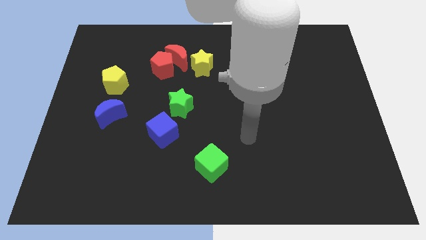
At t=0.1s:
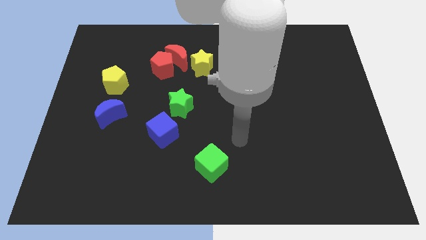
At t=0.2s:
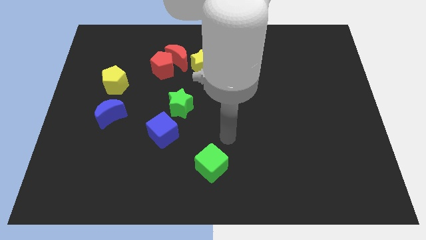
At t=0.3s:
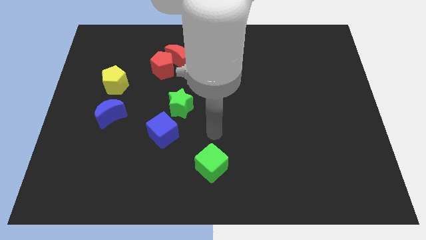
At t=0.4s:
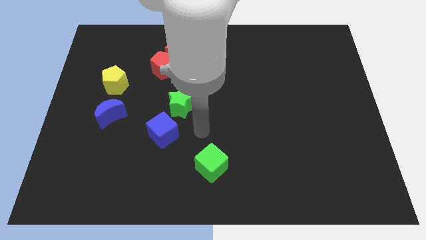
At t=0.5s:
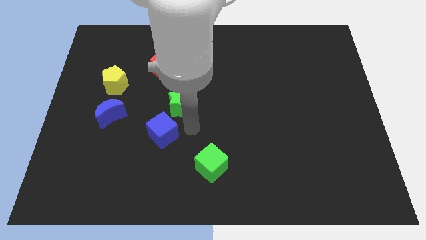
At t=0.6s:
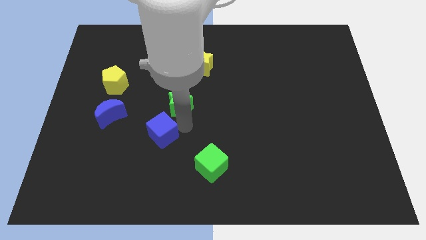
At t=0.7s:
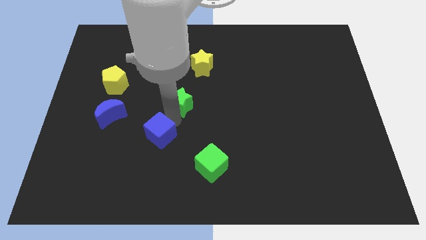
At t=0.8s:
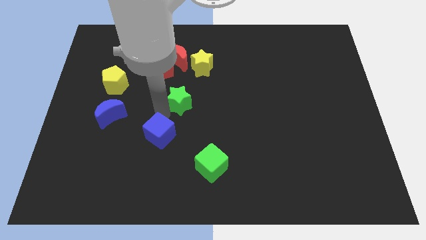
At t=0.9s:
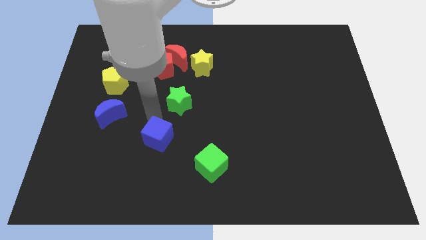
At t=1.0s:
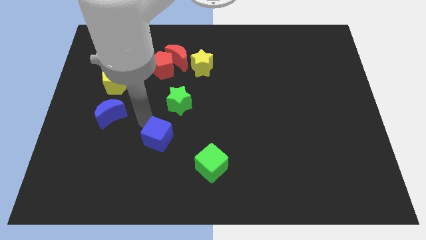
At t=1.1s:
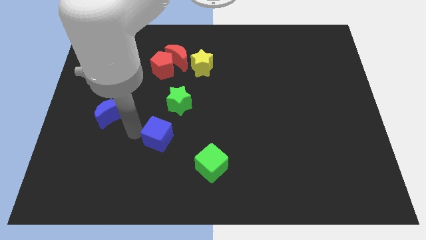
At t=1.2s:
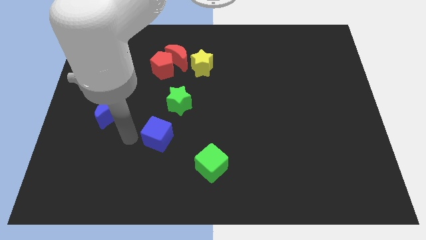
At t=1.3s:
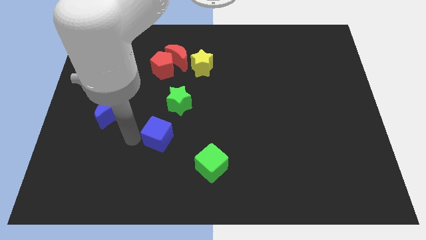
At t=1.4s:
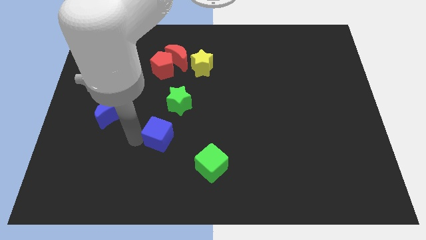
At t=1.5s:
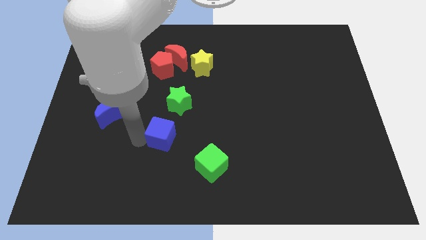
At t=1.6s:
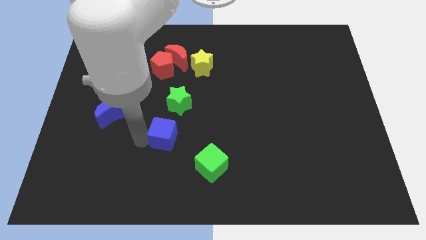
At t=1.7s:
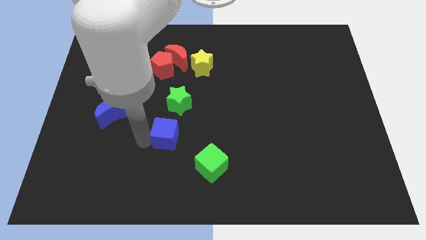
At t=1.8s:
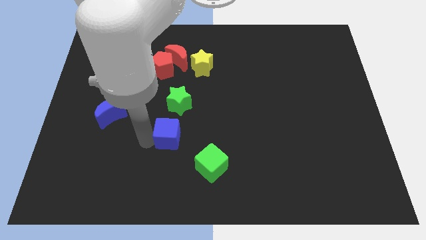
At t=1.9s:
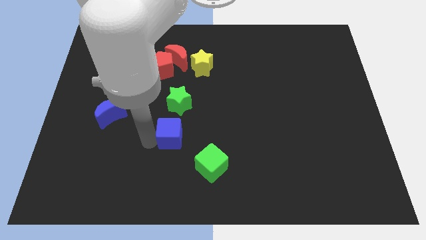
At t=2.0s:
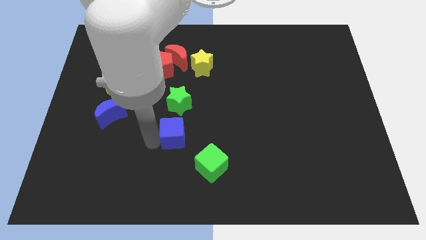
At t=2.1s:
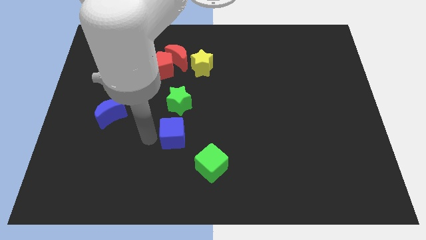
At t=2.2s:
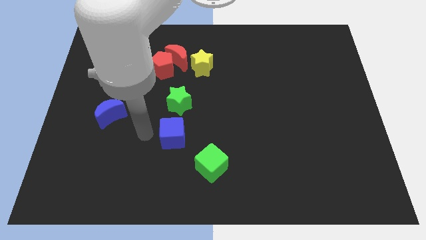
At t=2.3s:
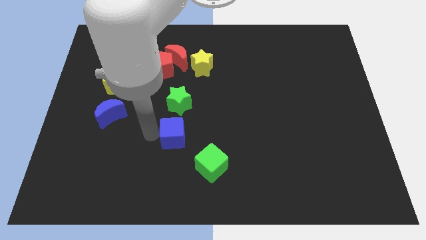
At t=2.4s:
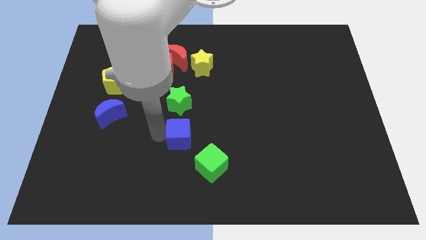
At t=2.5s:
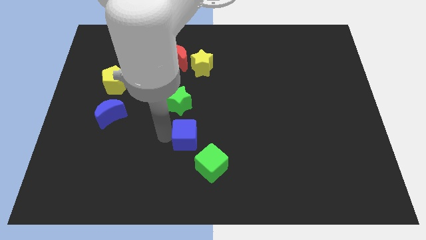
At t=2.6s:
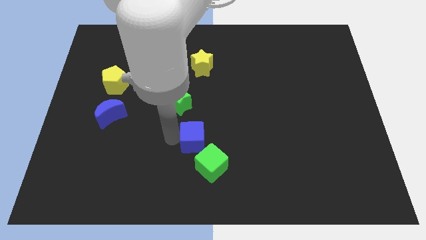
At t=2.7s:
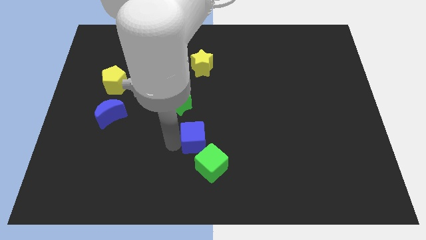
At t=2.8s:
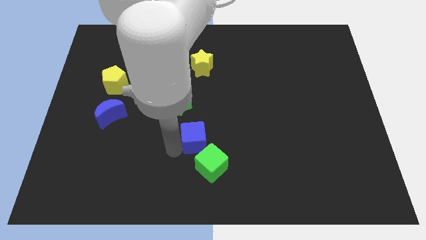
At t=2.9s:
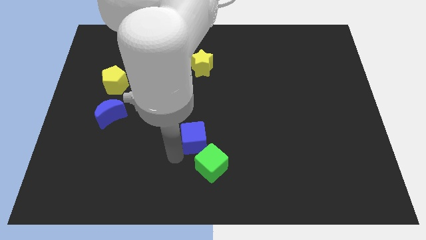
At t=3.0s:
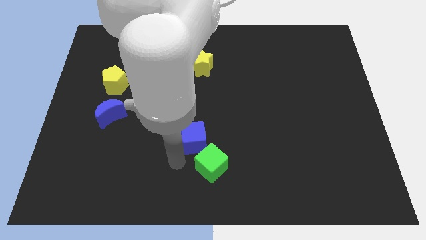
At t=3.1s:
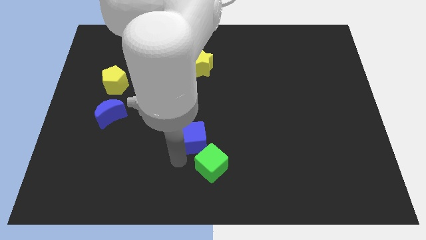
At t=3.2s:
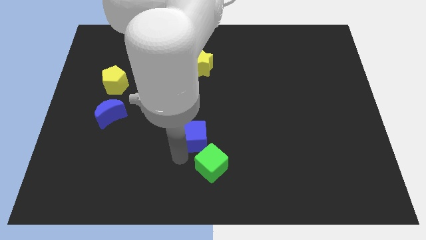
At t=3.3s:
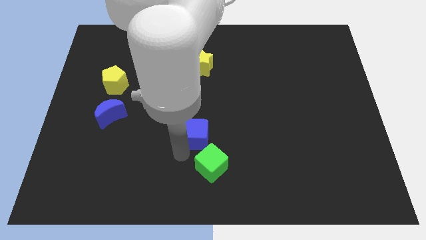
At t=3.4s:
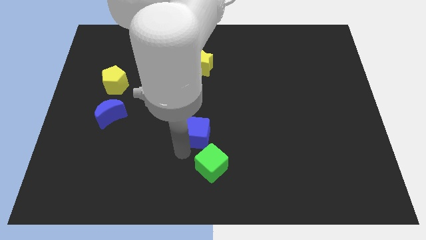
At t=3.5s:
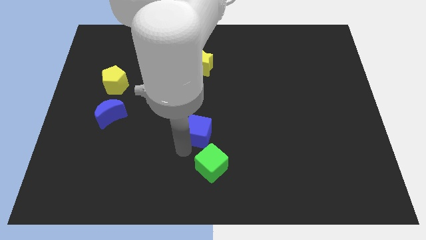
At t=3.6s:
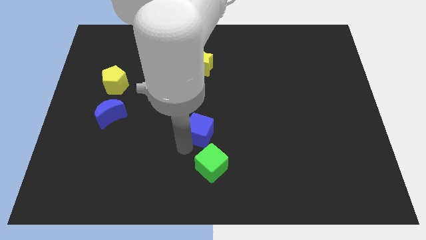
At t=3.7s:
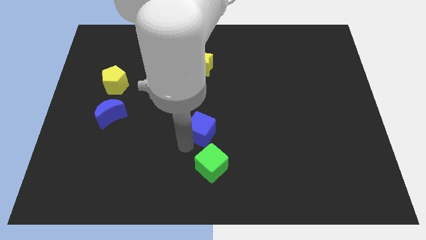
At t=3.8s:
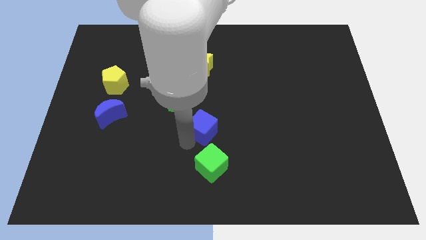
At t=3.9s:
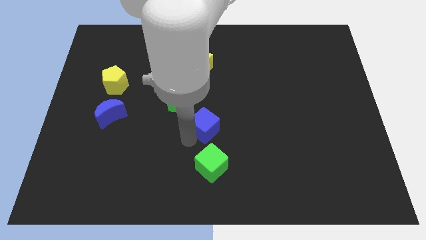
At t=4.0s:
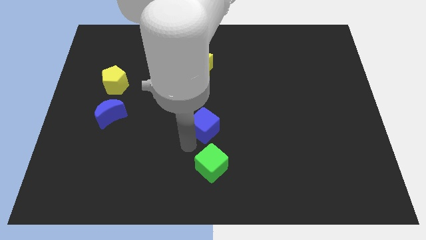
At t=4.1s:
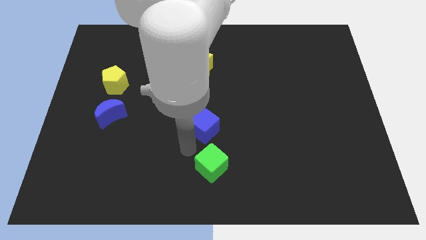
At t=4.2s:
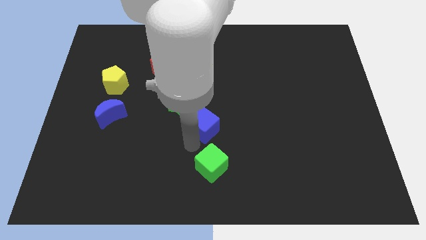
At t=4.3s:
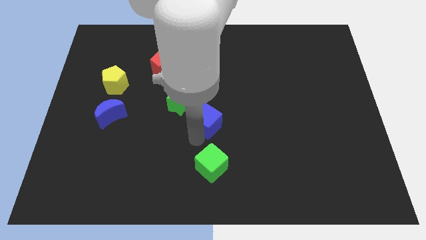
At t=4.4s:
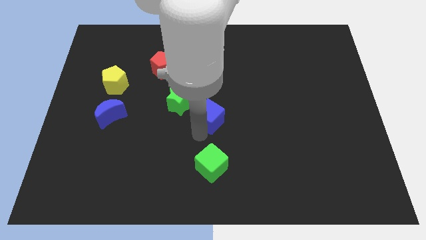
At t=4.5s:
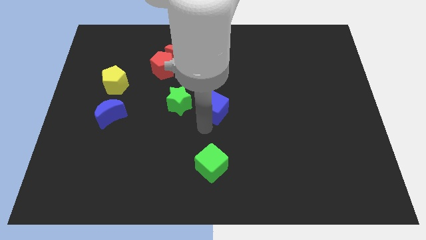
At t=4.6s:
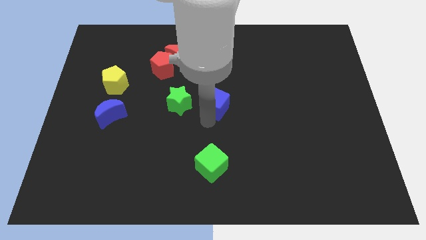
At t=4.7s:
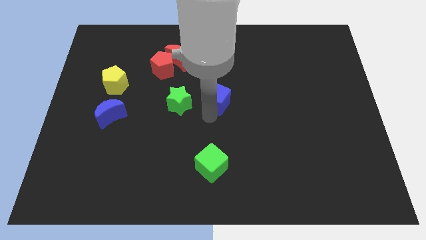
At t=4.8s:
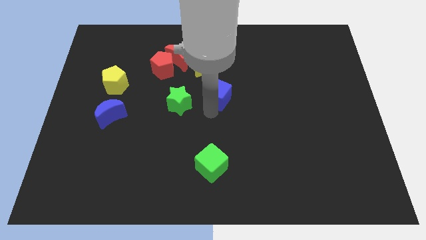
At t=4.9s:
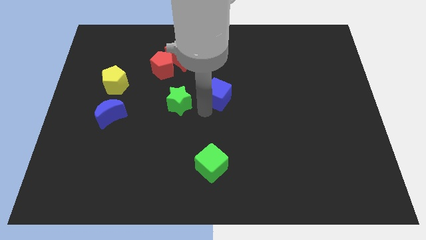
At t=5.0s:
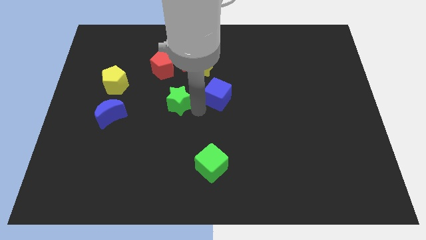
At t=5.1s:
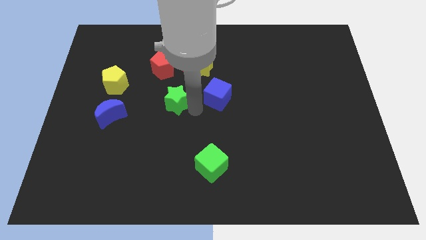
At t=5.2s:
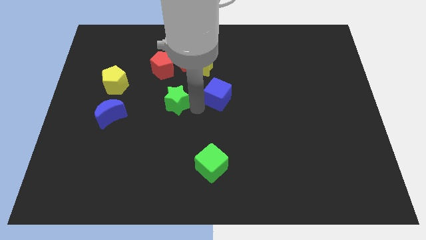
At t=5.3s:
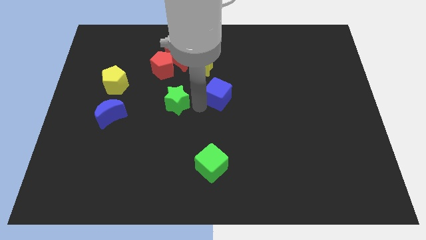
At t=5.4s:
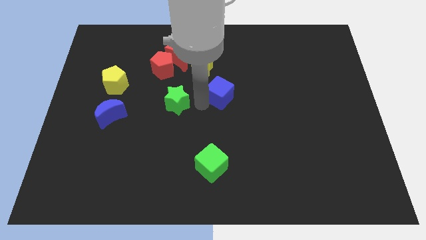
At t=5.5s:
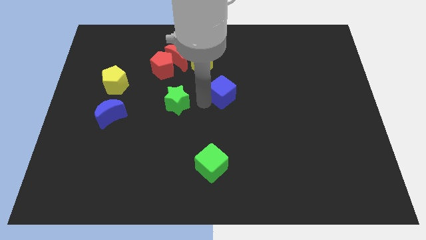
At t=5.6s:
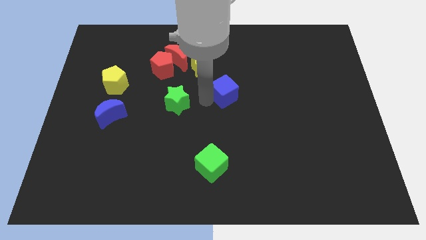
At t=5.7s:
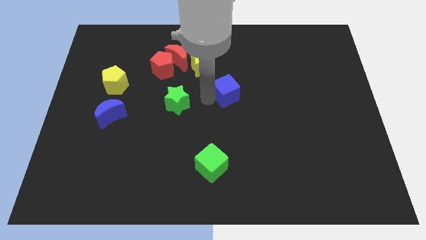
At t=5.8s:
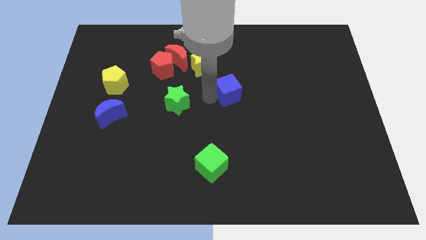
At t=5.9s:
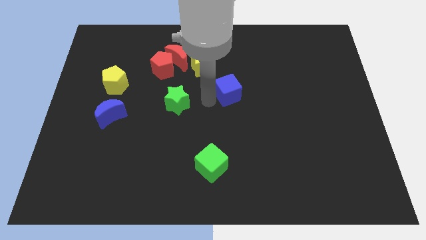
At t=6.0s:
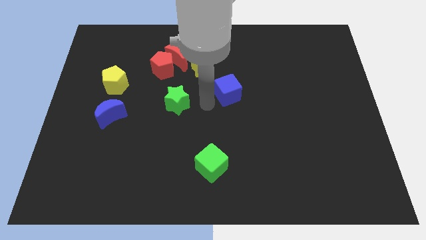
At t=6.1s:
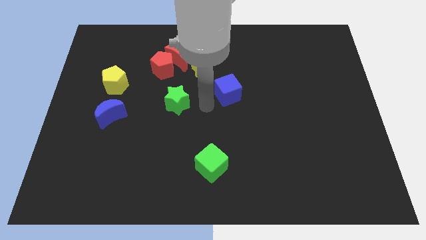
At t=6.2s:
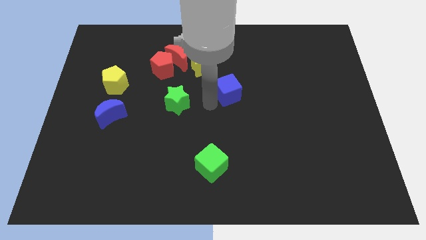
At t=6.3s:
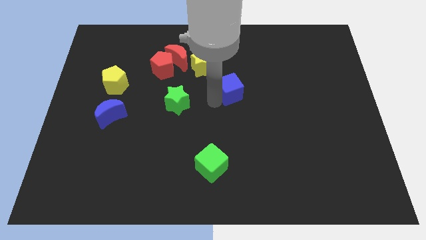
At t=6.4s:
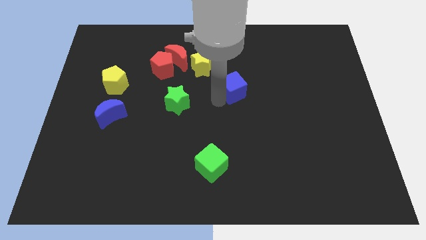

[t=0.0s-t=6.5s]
slide the blue cube diagonally up and right

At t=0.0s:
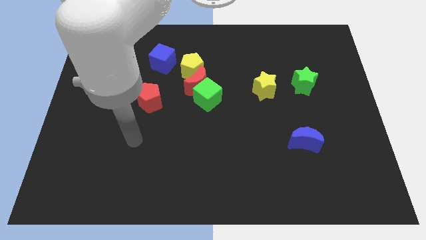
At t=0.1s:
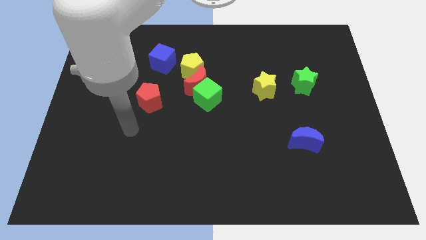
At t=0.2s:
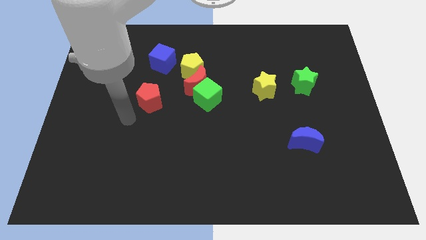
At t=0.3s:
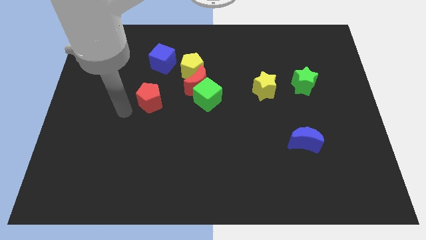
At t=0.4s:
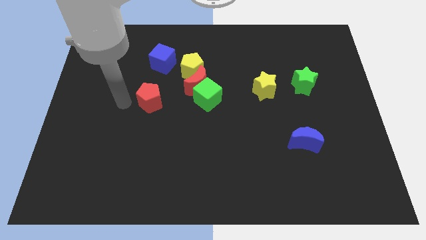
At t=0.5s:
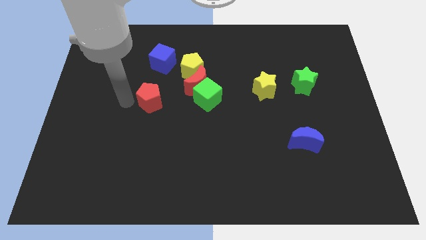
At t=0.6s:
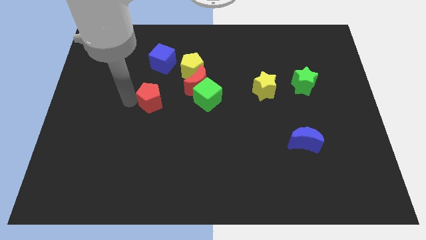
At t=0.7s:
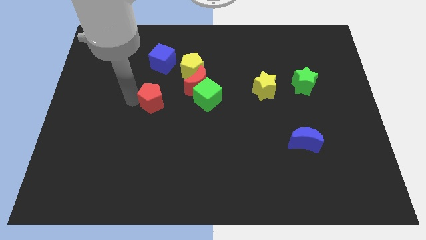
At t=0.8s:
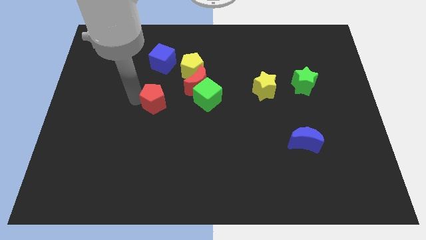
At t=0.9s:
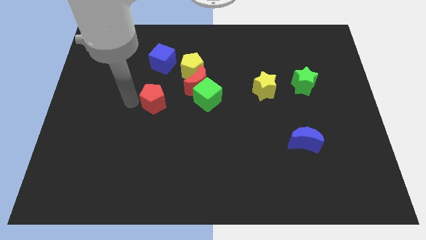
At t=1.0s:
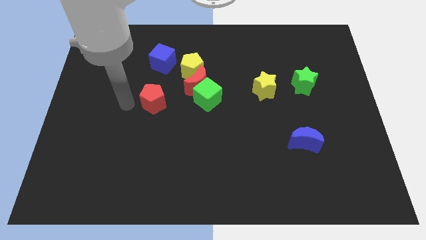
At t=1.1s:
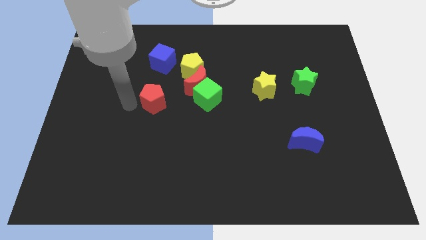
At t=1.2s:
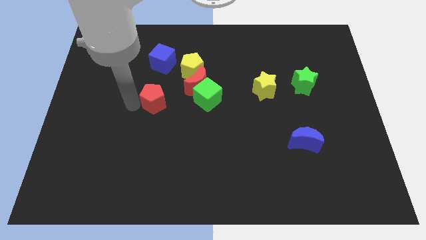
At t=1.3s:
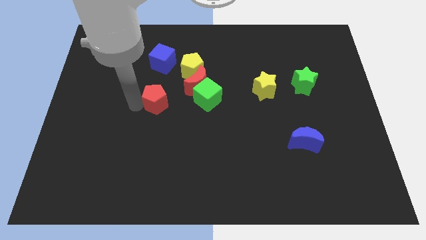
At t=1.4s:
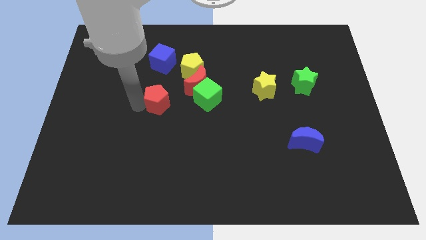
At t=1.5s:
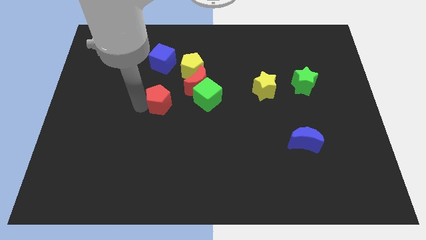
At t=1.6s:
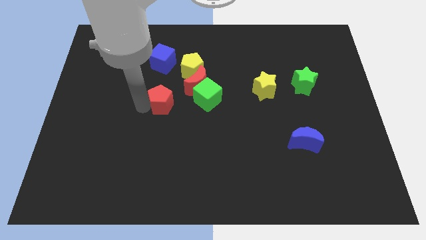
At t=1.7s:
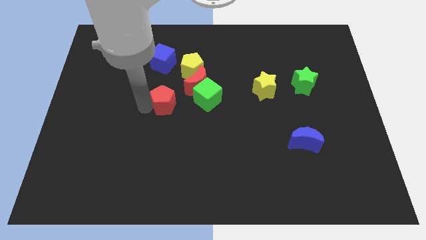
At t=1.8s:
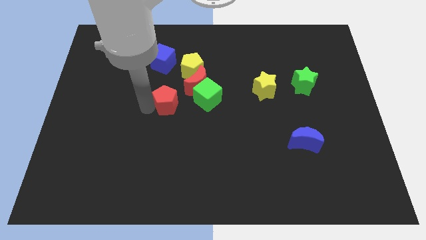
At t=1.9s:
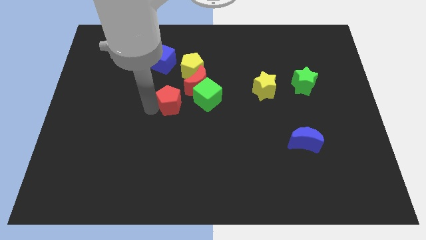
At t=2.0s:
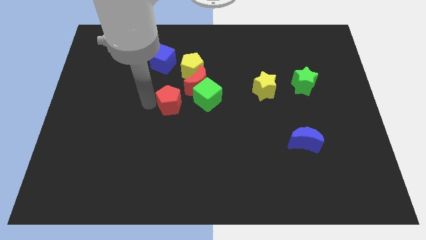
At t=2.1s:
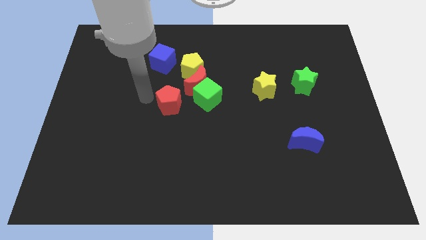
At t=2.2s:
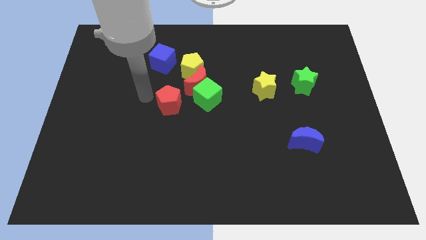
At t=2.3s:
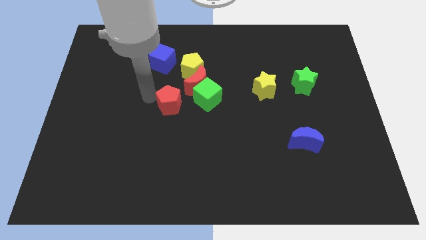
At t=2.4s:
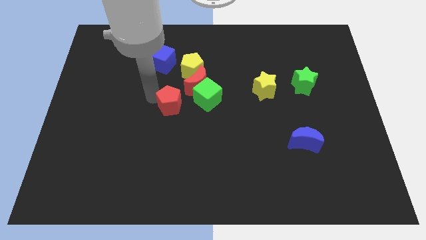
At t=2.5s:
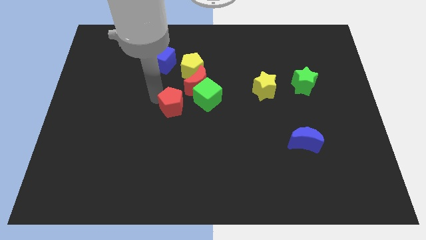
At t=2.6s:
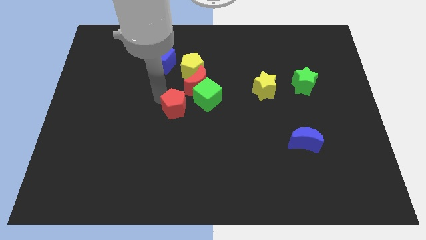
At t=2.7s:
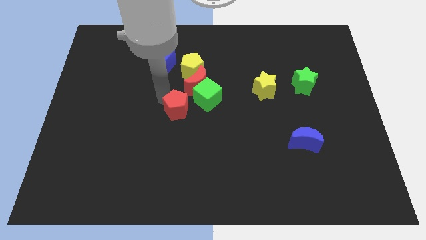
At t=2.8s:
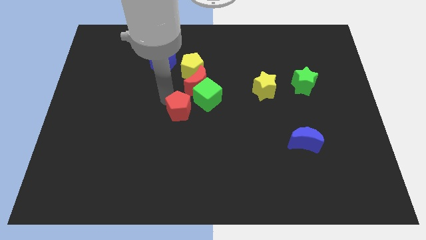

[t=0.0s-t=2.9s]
move the red pentagon right somewhat
